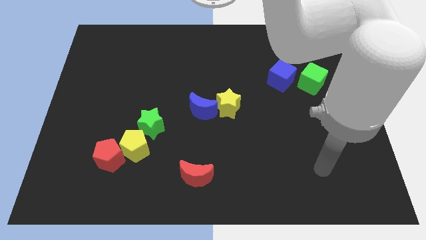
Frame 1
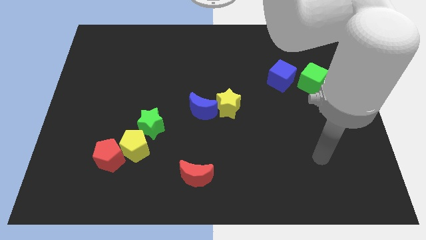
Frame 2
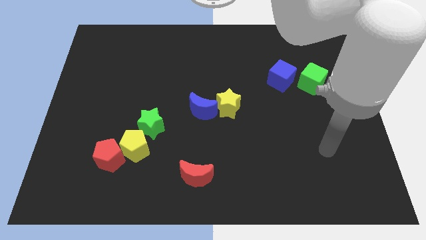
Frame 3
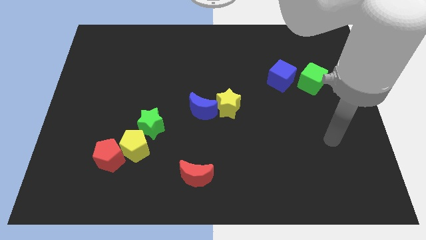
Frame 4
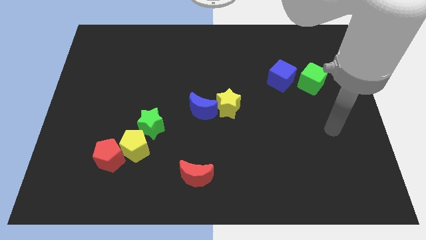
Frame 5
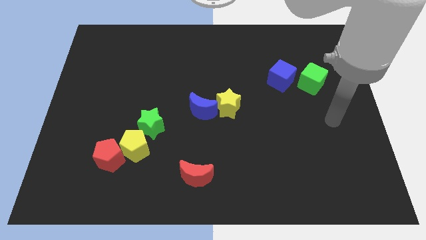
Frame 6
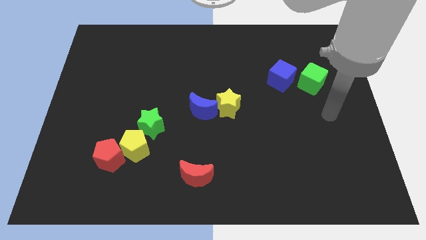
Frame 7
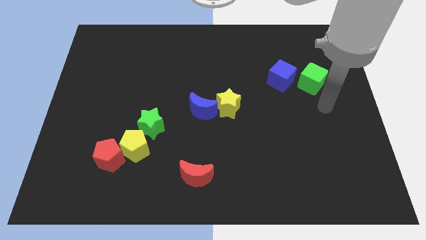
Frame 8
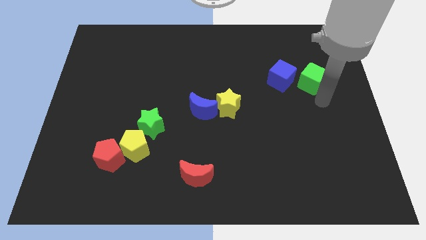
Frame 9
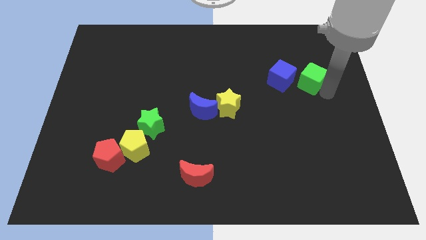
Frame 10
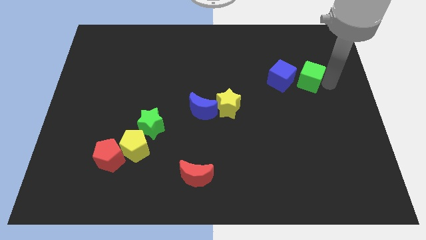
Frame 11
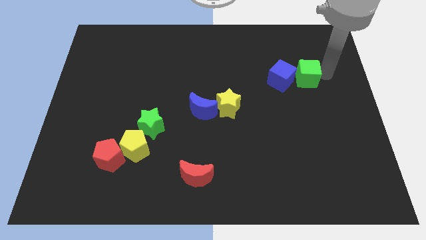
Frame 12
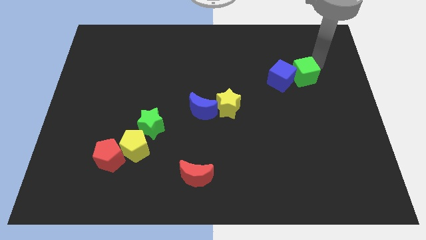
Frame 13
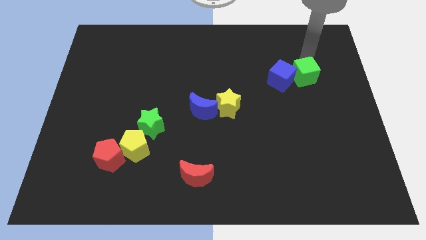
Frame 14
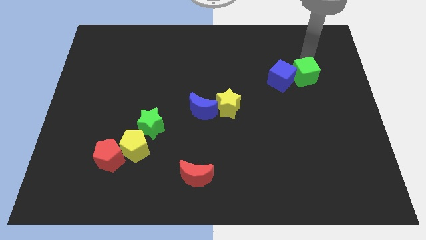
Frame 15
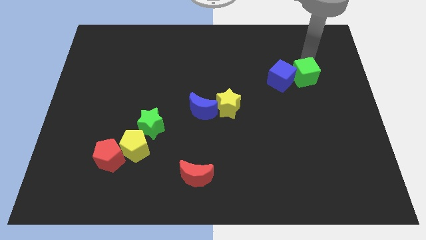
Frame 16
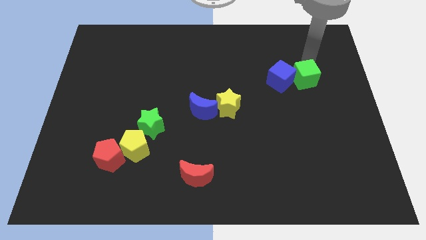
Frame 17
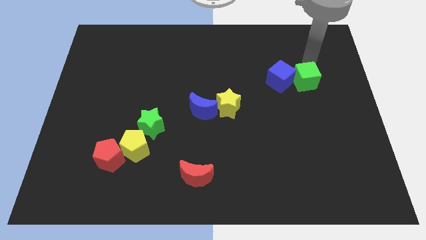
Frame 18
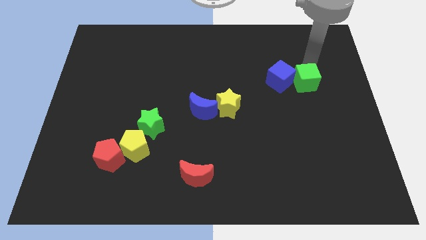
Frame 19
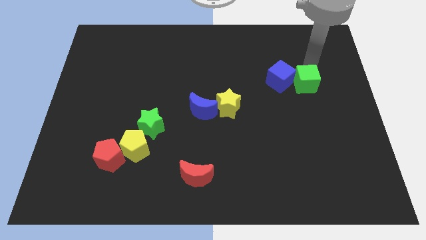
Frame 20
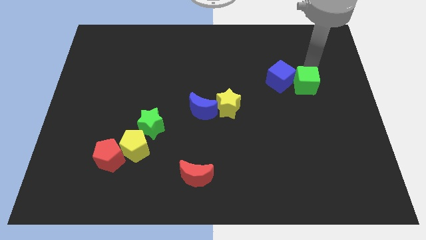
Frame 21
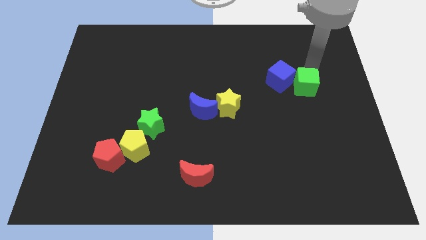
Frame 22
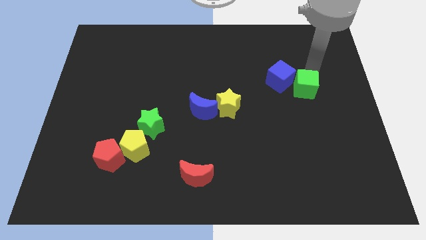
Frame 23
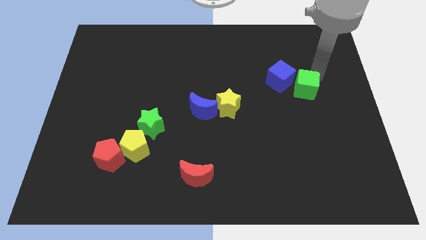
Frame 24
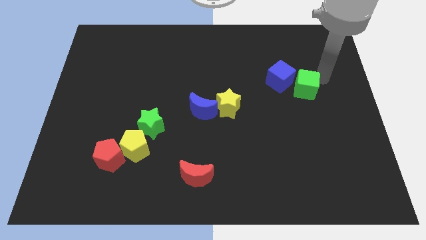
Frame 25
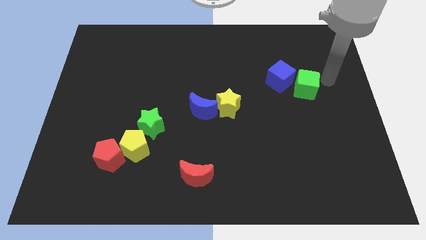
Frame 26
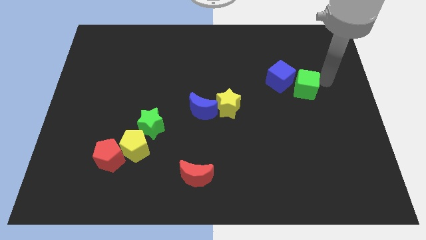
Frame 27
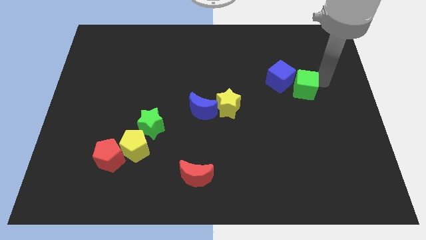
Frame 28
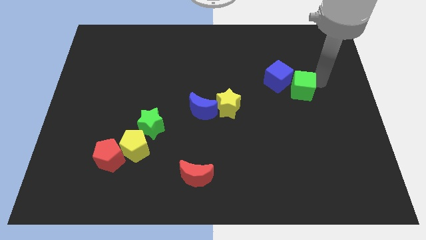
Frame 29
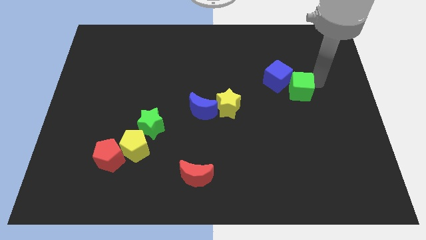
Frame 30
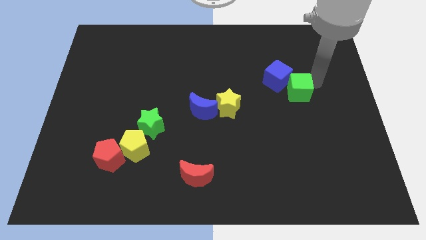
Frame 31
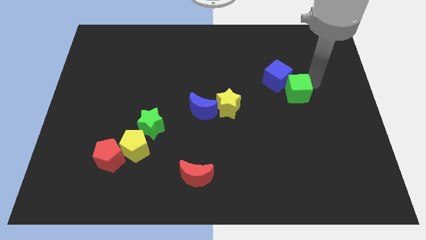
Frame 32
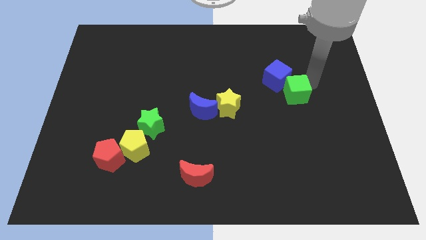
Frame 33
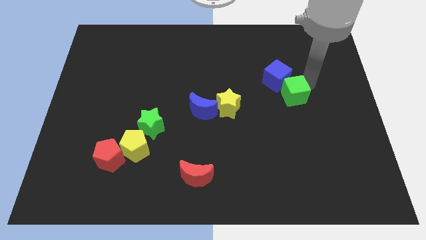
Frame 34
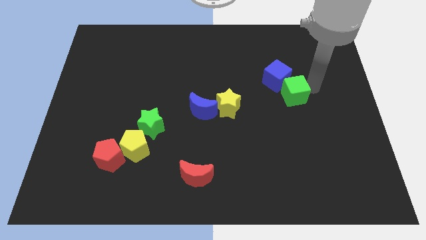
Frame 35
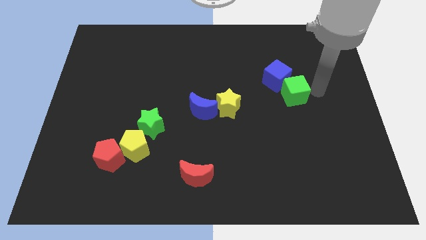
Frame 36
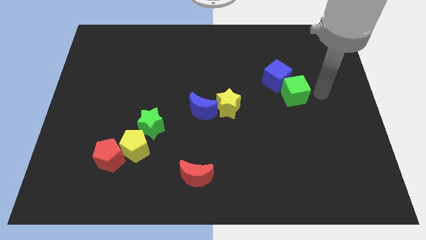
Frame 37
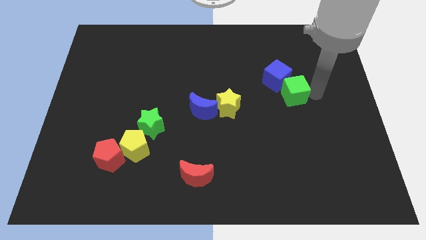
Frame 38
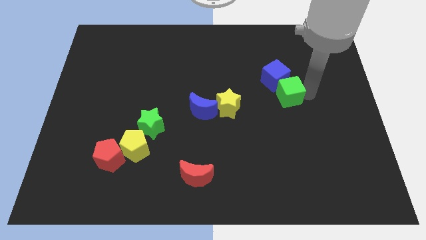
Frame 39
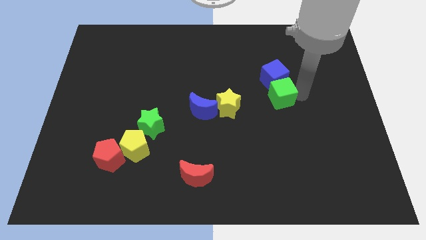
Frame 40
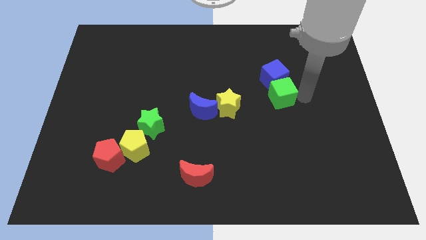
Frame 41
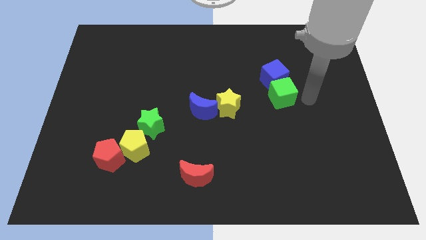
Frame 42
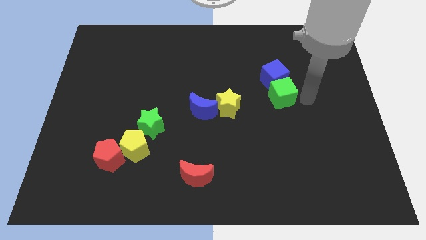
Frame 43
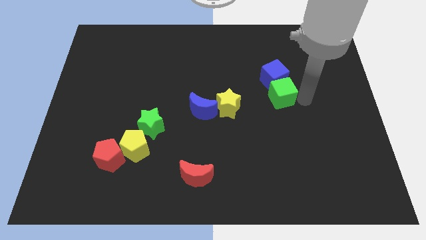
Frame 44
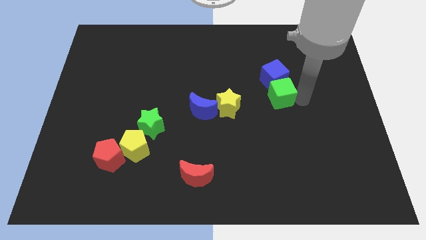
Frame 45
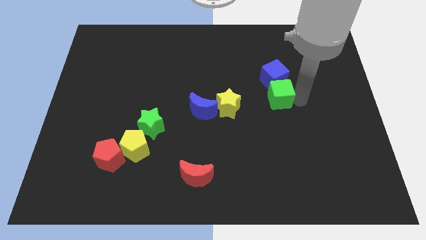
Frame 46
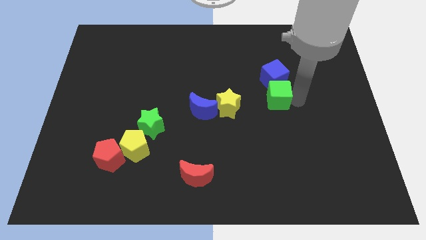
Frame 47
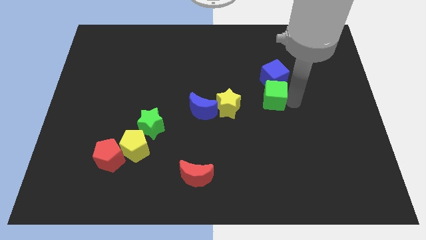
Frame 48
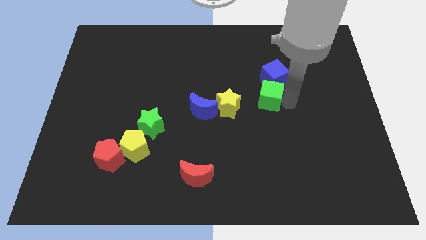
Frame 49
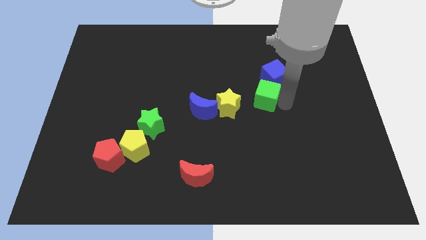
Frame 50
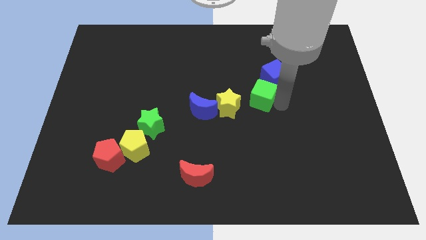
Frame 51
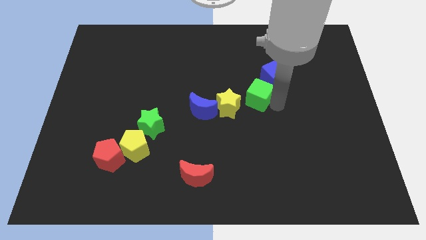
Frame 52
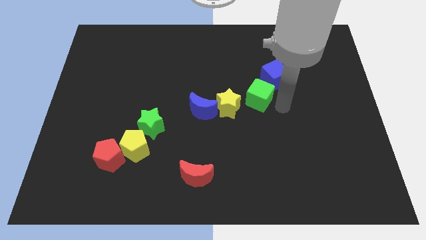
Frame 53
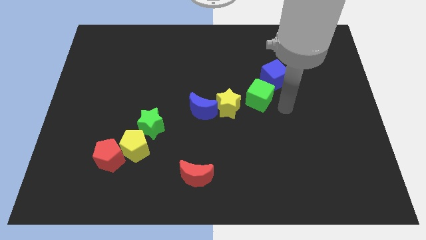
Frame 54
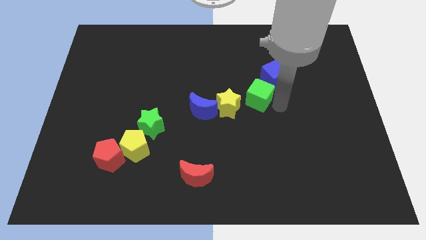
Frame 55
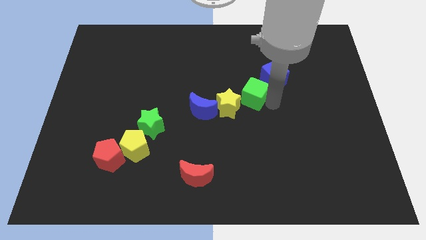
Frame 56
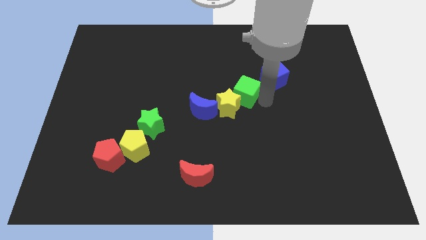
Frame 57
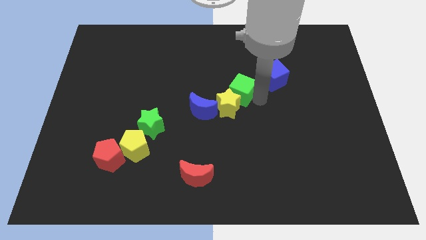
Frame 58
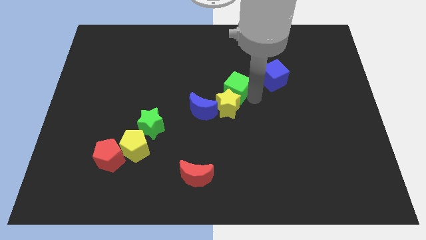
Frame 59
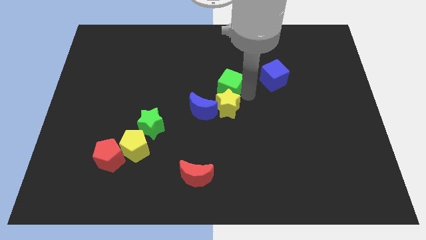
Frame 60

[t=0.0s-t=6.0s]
move the green cube diagonally up and to the left of the yellow star

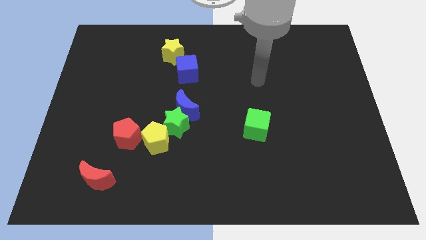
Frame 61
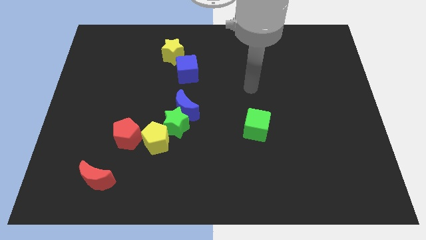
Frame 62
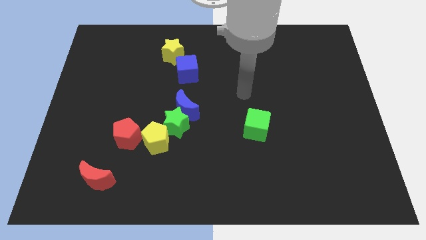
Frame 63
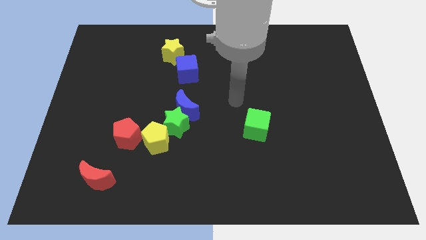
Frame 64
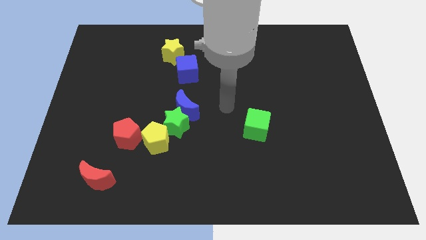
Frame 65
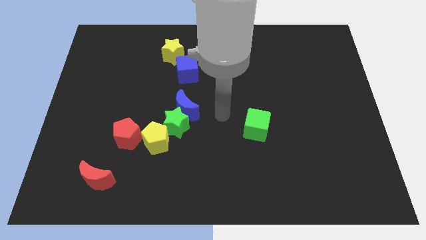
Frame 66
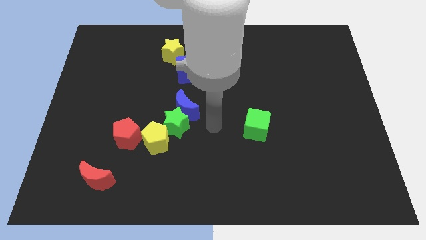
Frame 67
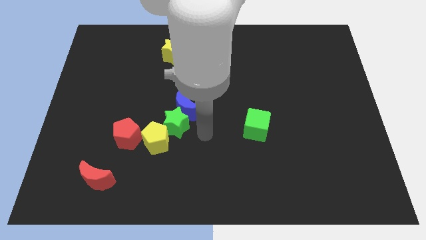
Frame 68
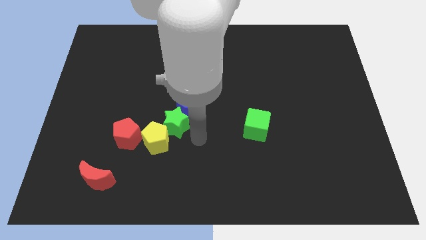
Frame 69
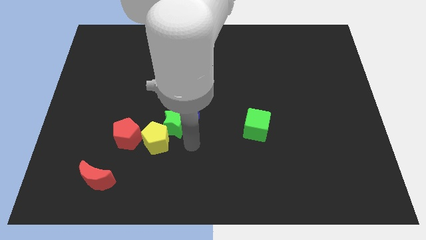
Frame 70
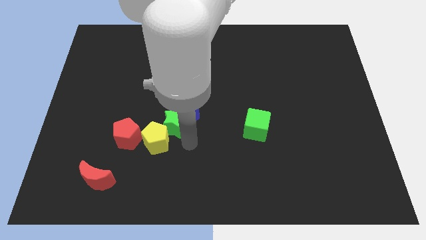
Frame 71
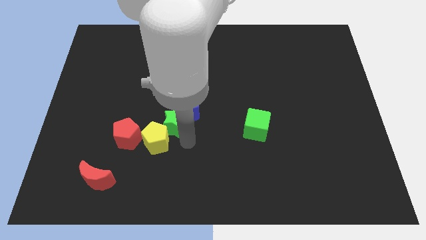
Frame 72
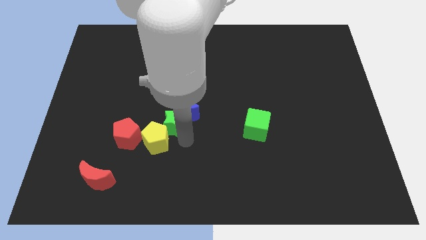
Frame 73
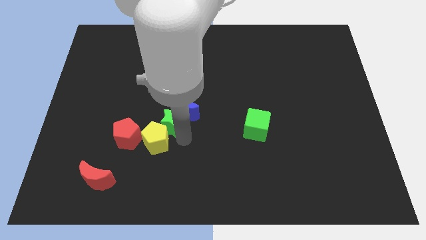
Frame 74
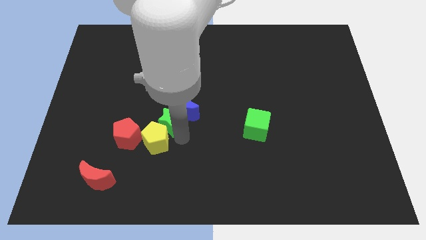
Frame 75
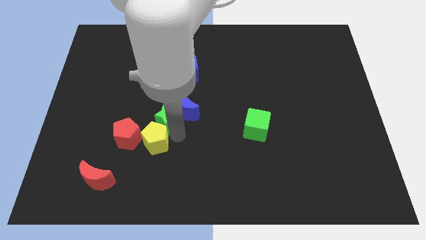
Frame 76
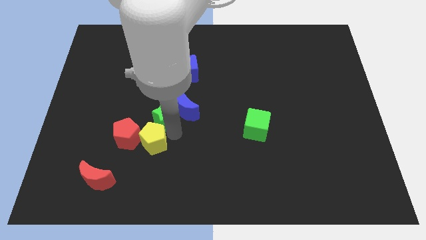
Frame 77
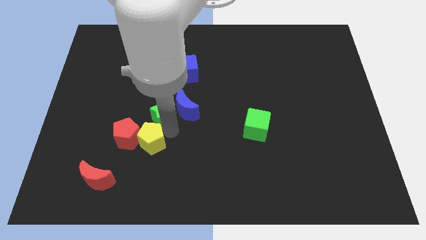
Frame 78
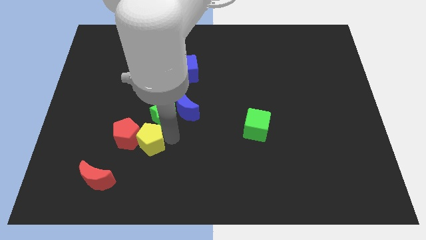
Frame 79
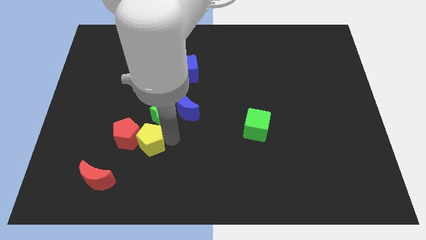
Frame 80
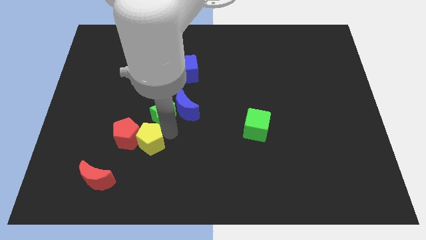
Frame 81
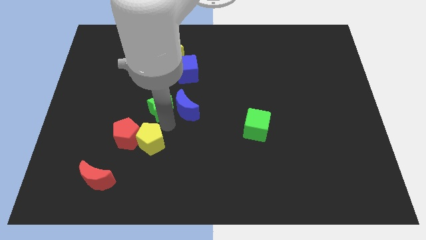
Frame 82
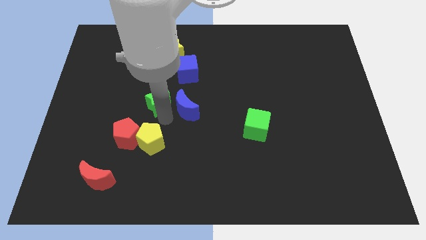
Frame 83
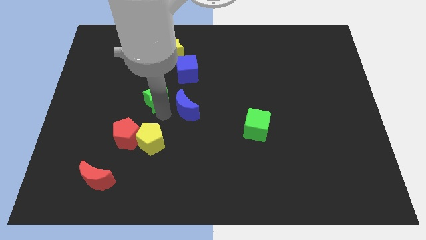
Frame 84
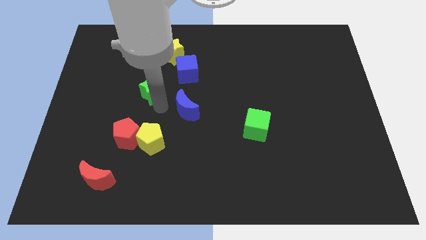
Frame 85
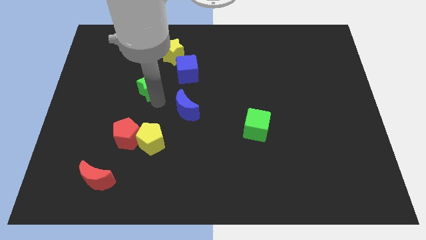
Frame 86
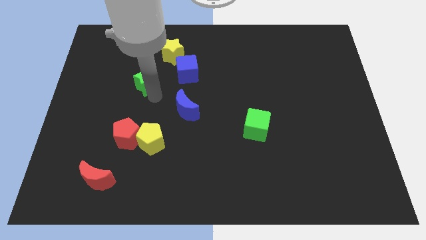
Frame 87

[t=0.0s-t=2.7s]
slide the green star left of the blue cube
